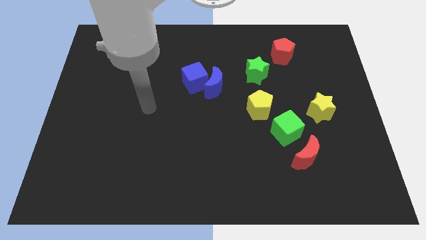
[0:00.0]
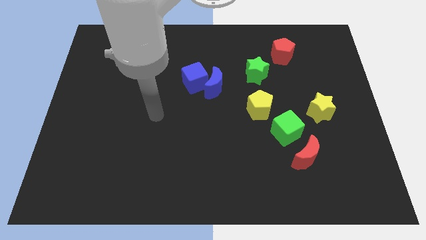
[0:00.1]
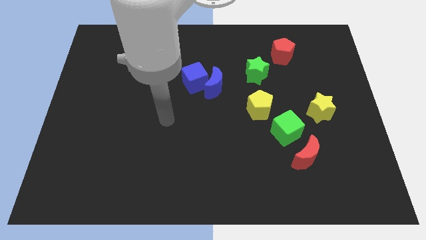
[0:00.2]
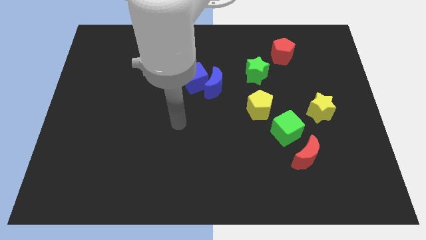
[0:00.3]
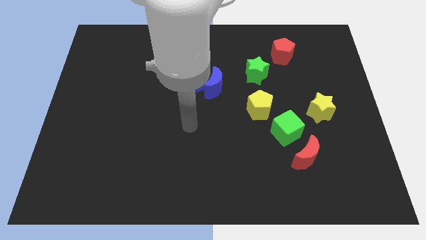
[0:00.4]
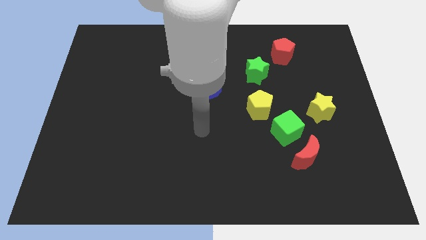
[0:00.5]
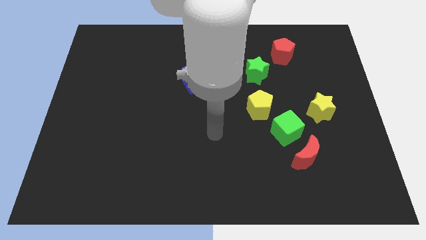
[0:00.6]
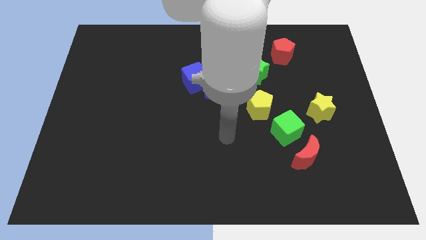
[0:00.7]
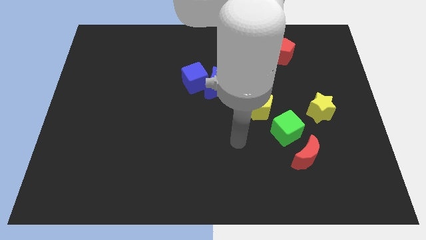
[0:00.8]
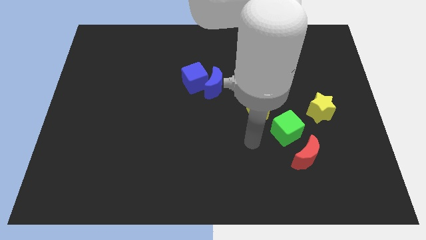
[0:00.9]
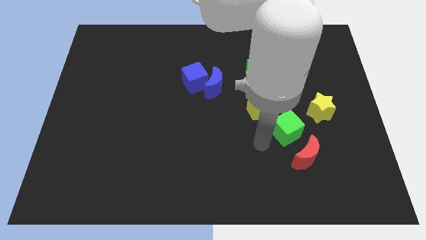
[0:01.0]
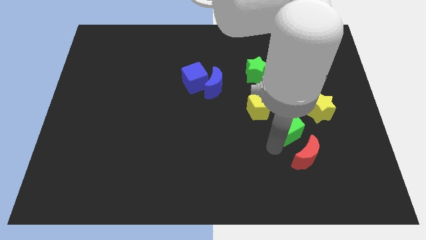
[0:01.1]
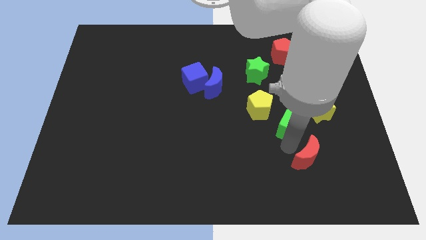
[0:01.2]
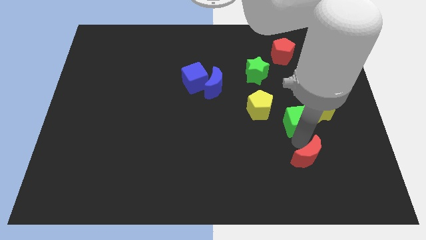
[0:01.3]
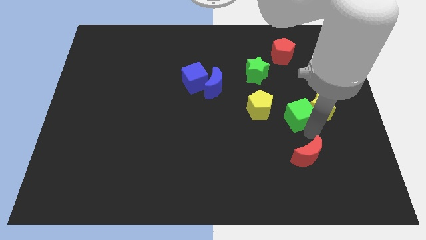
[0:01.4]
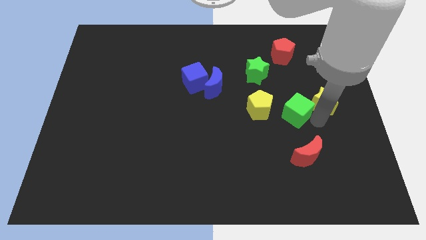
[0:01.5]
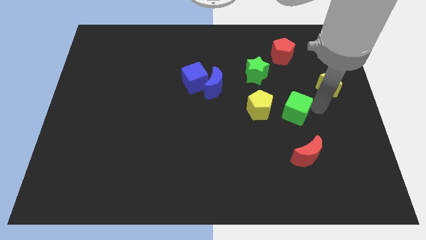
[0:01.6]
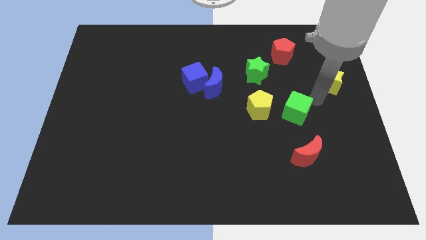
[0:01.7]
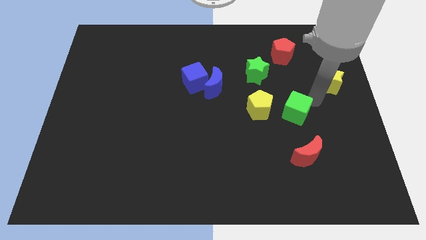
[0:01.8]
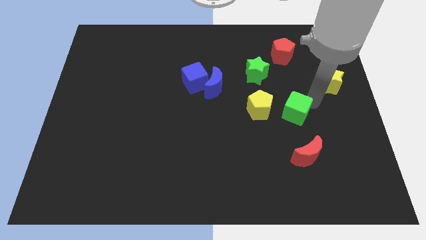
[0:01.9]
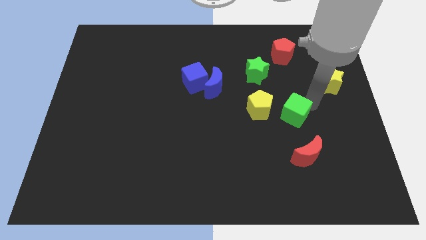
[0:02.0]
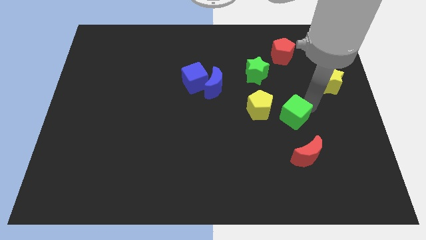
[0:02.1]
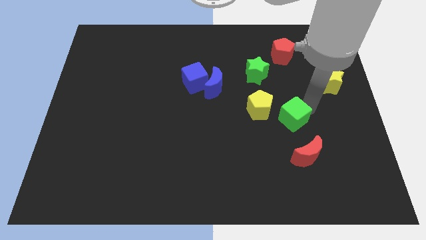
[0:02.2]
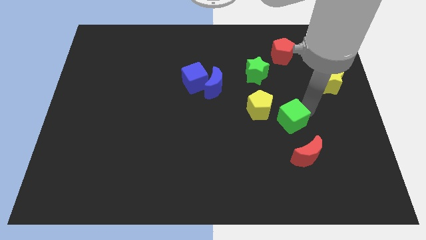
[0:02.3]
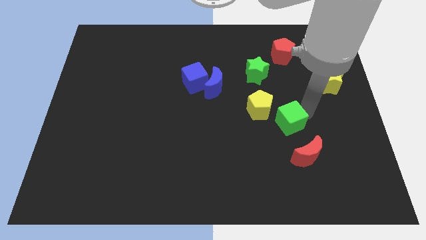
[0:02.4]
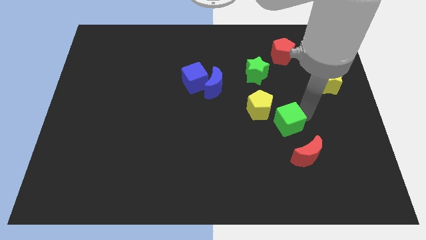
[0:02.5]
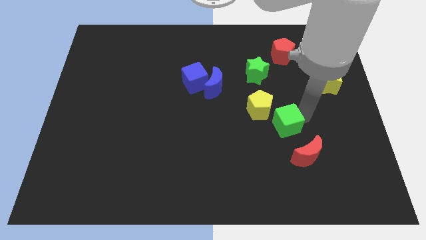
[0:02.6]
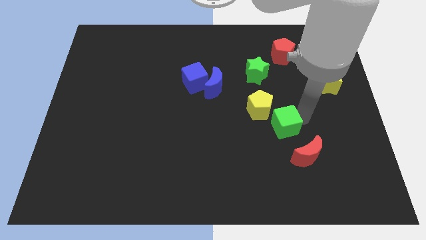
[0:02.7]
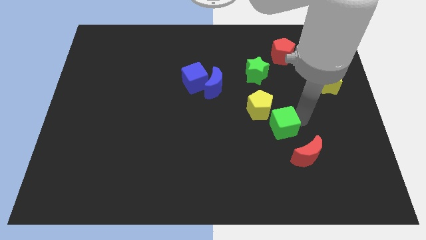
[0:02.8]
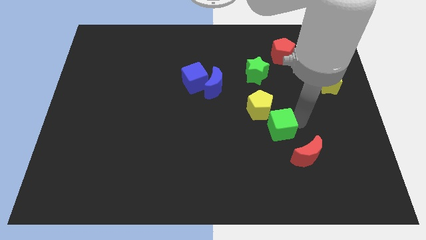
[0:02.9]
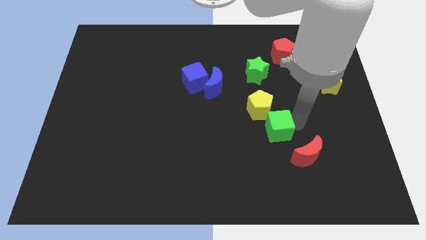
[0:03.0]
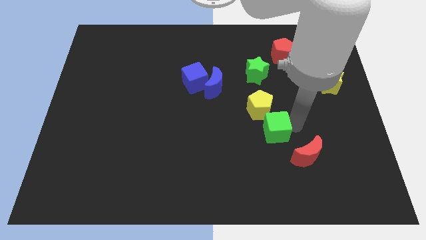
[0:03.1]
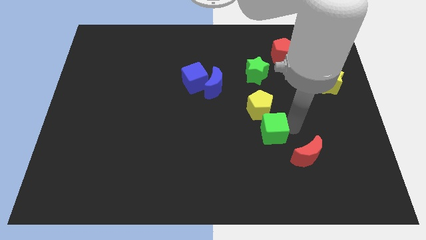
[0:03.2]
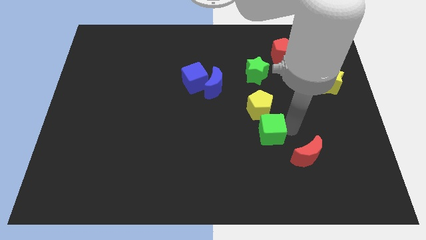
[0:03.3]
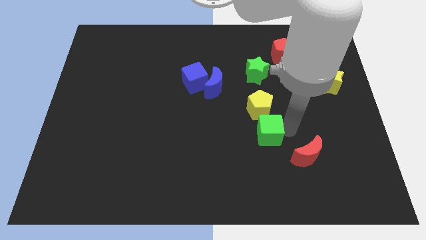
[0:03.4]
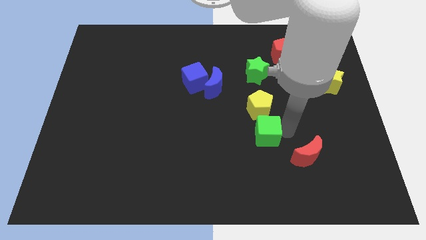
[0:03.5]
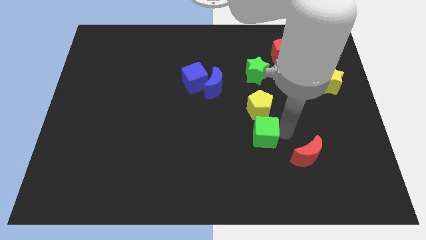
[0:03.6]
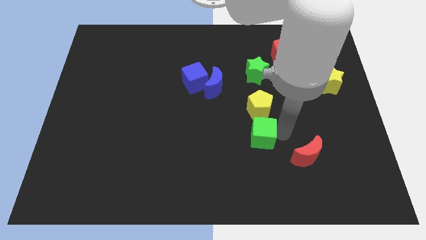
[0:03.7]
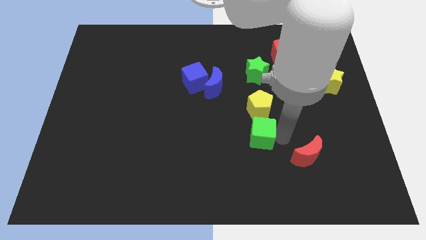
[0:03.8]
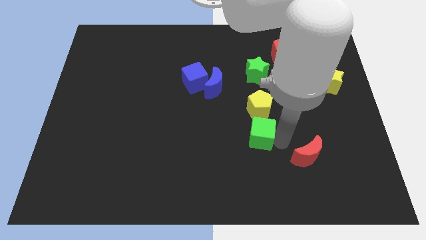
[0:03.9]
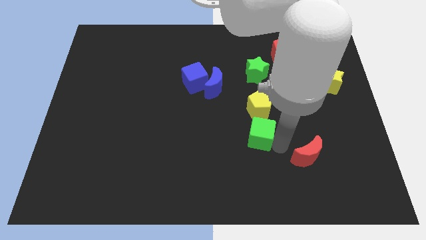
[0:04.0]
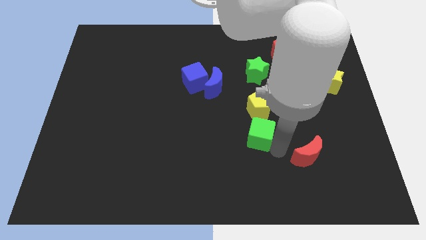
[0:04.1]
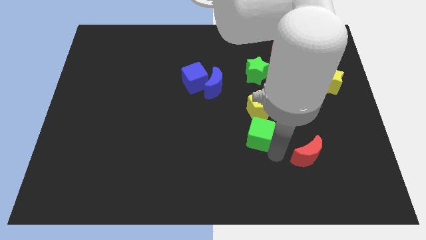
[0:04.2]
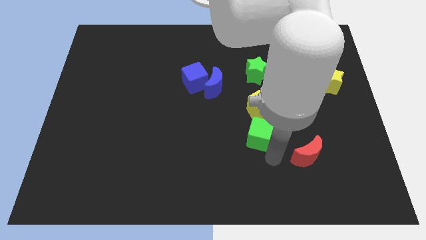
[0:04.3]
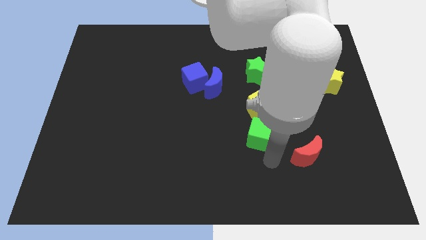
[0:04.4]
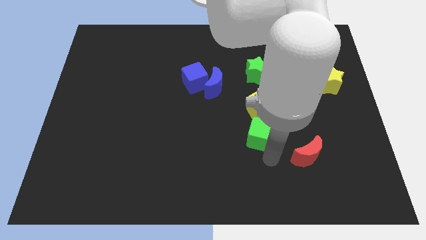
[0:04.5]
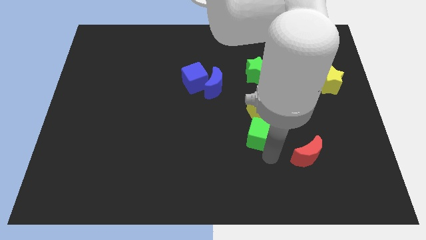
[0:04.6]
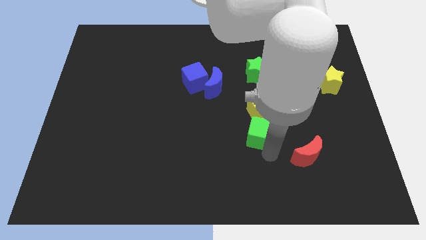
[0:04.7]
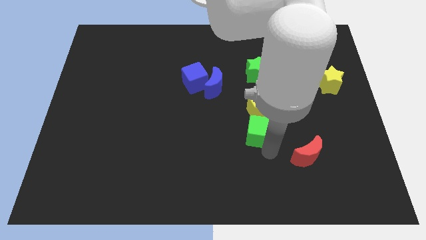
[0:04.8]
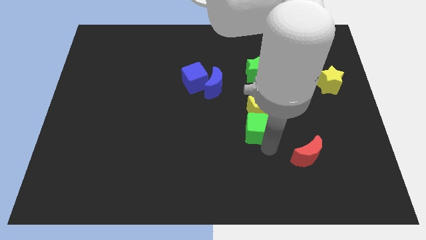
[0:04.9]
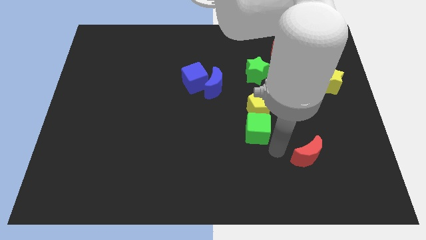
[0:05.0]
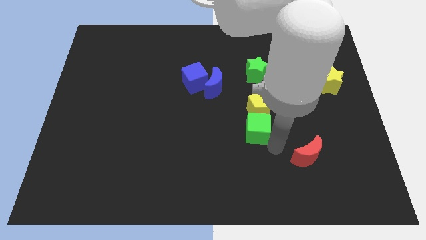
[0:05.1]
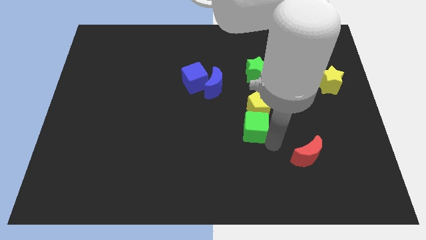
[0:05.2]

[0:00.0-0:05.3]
move the green cube to the center

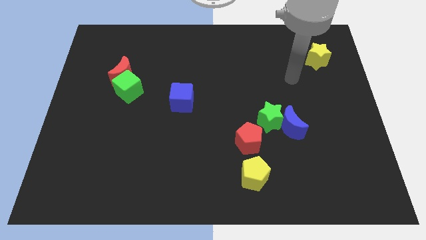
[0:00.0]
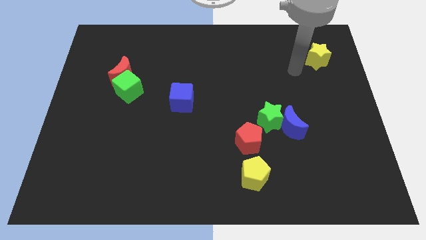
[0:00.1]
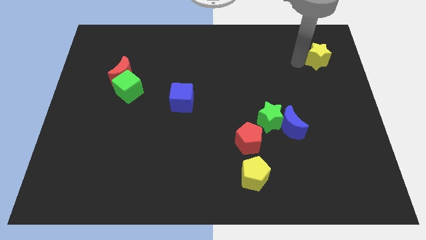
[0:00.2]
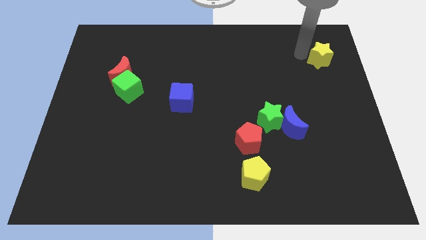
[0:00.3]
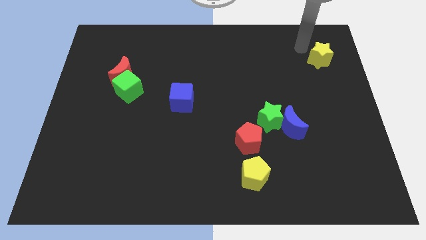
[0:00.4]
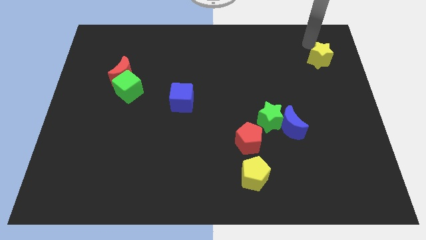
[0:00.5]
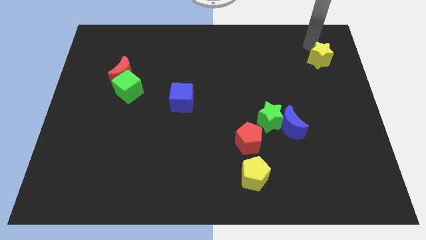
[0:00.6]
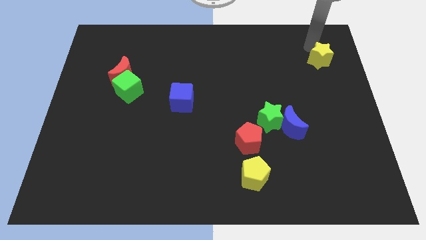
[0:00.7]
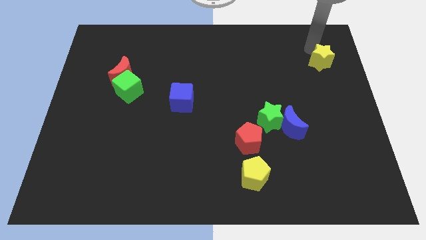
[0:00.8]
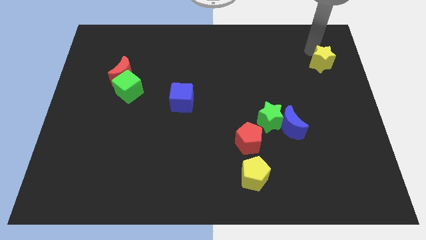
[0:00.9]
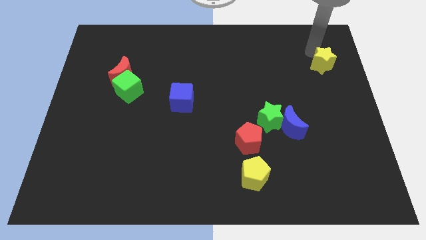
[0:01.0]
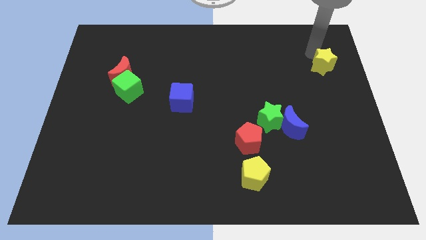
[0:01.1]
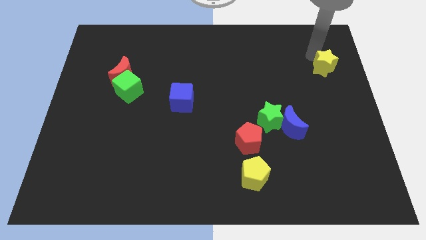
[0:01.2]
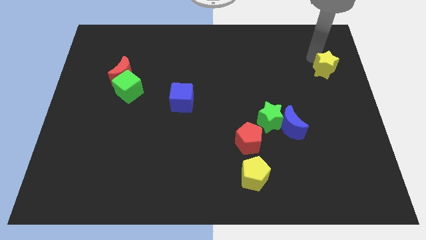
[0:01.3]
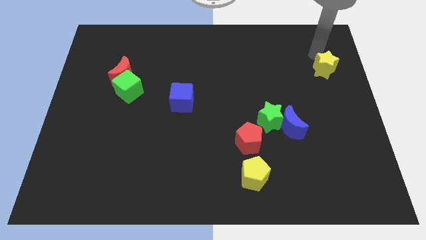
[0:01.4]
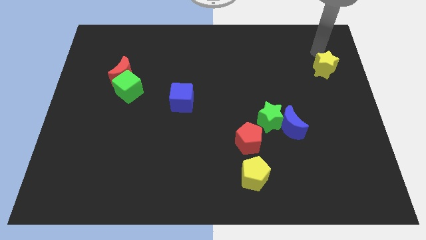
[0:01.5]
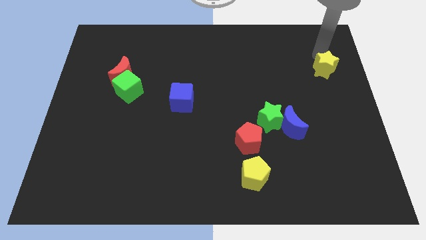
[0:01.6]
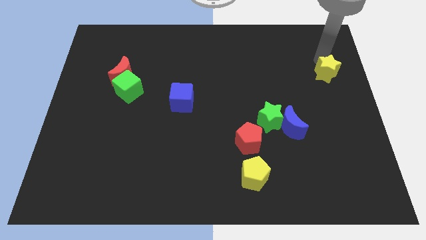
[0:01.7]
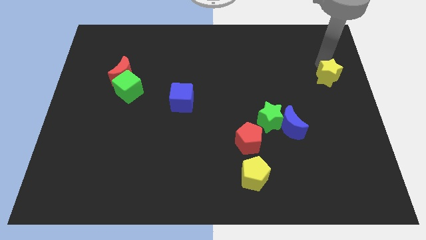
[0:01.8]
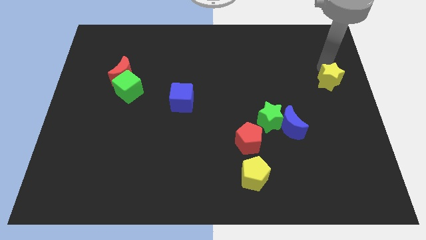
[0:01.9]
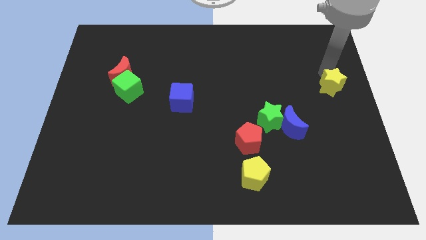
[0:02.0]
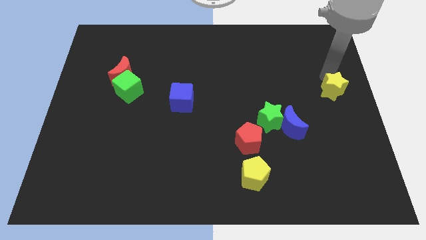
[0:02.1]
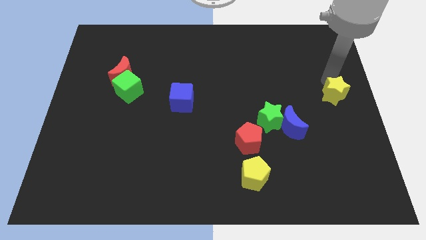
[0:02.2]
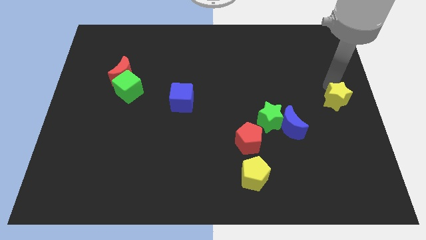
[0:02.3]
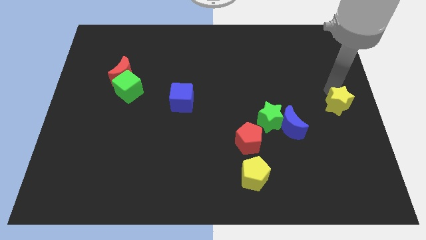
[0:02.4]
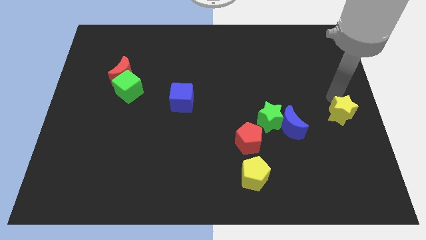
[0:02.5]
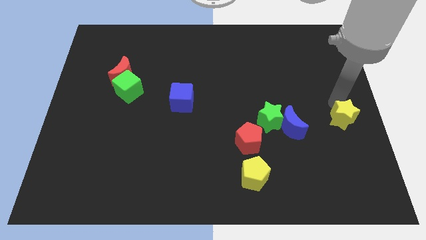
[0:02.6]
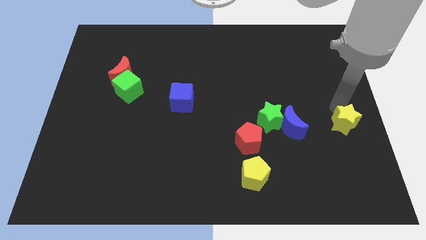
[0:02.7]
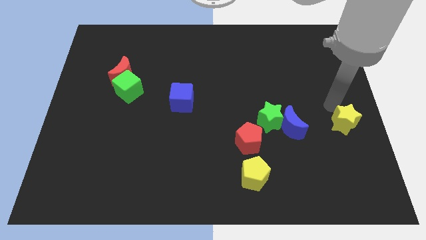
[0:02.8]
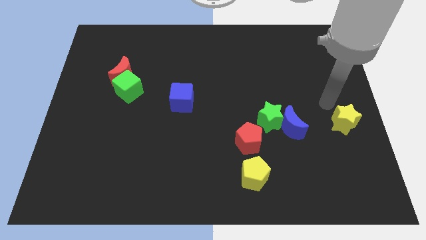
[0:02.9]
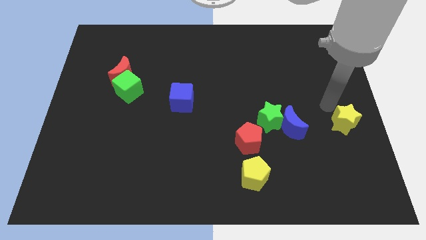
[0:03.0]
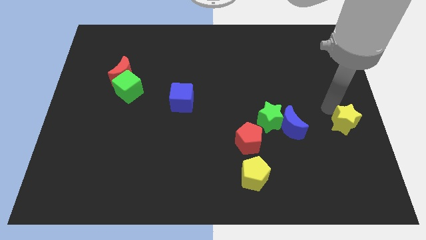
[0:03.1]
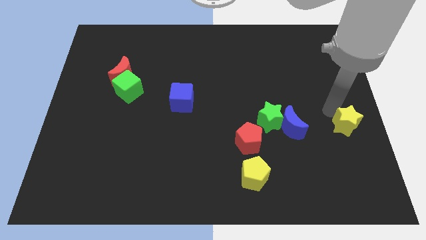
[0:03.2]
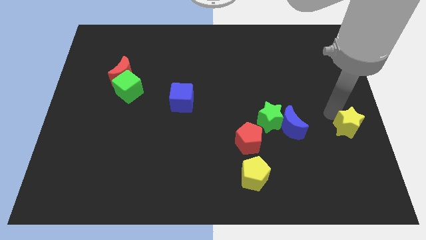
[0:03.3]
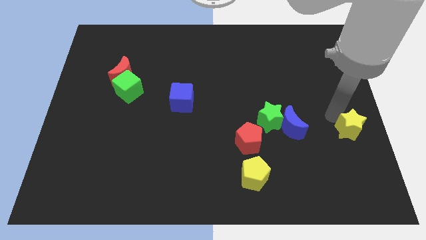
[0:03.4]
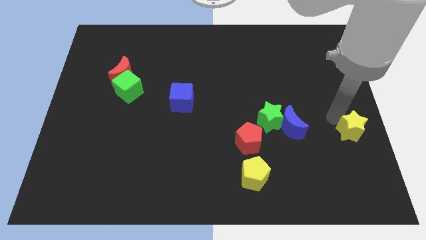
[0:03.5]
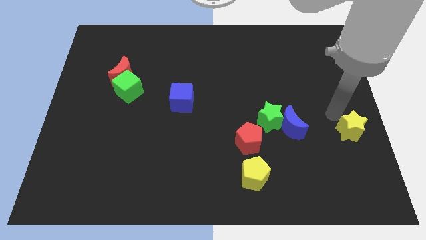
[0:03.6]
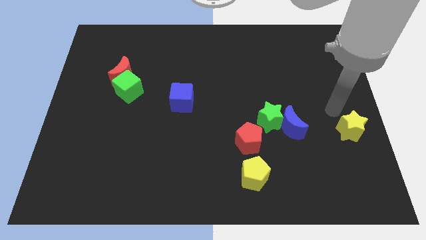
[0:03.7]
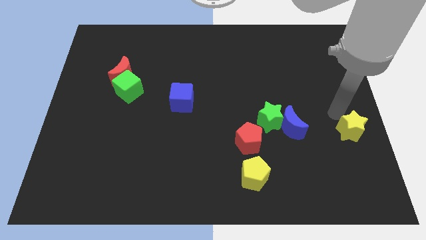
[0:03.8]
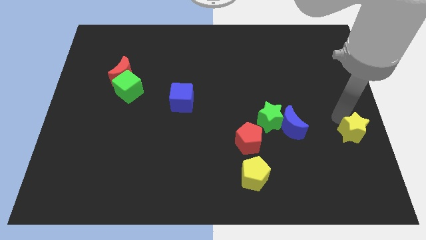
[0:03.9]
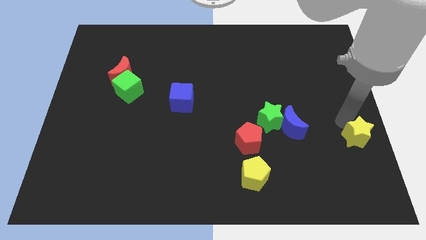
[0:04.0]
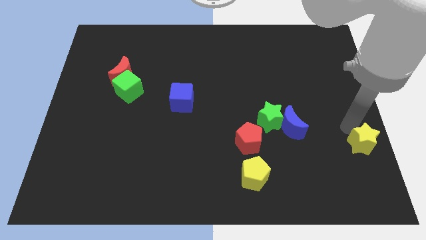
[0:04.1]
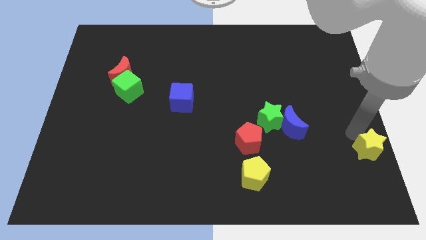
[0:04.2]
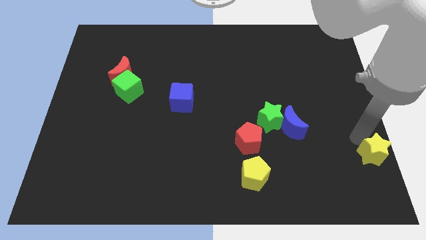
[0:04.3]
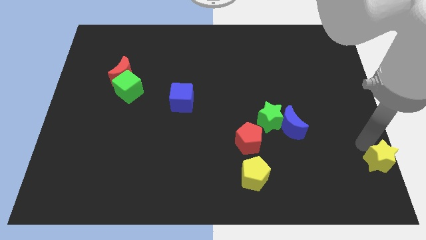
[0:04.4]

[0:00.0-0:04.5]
slide the yellow star to the bottom right corner
